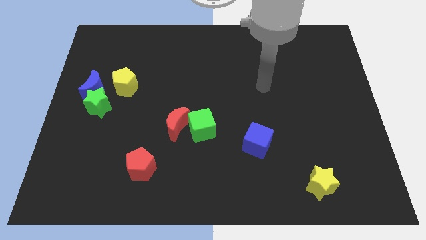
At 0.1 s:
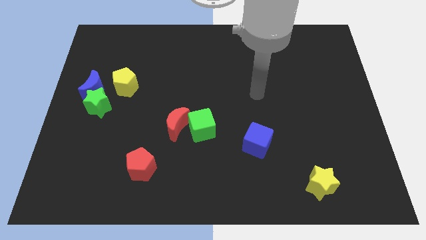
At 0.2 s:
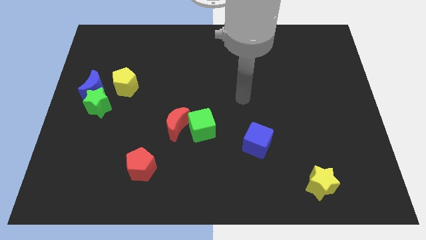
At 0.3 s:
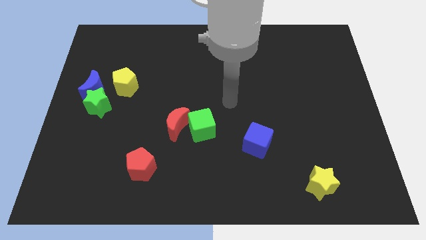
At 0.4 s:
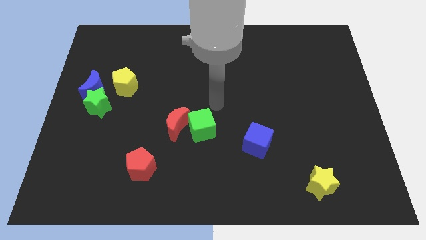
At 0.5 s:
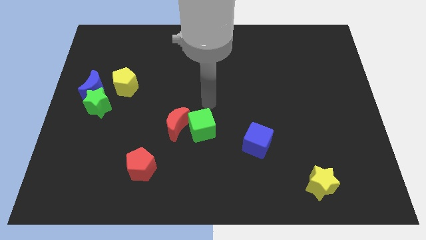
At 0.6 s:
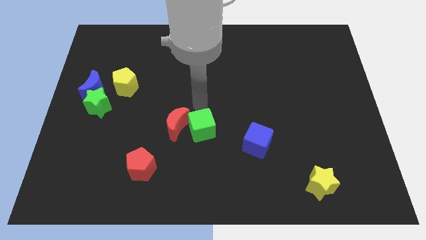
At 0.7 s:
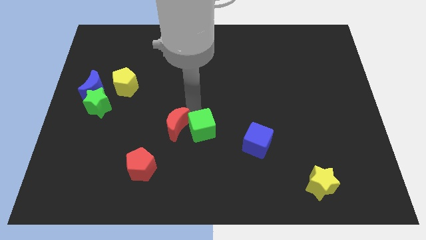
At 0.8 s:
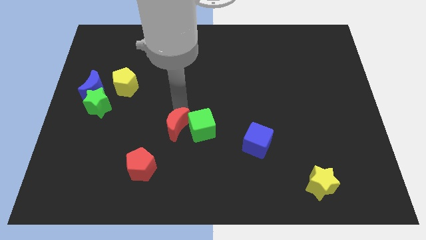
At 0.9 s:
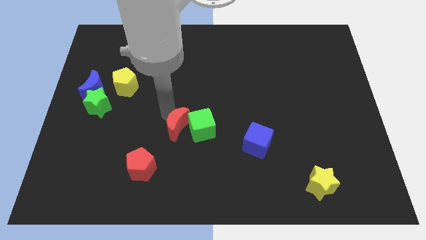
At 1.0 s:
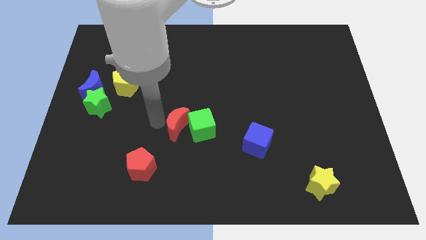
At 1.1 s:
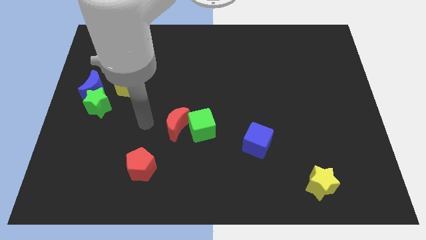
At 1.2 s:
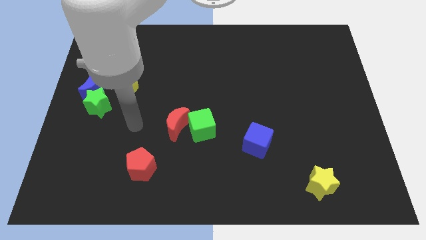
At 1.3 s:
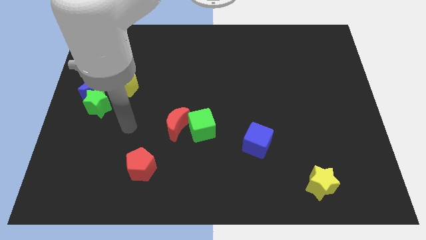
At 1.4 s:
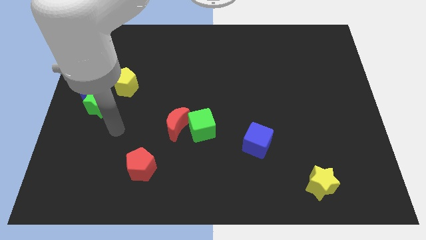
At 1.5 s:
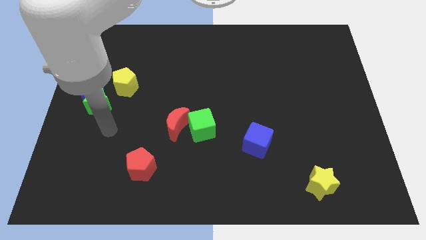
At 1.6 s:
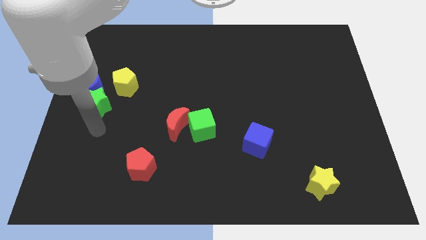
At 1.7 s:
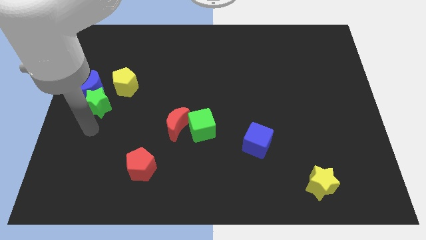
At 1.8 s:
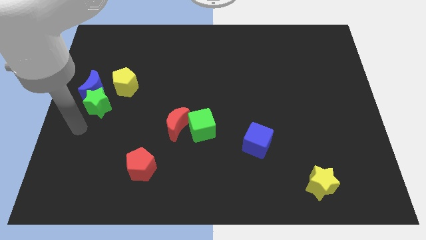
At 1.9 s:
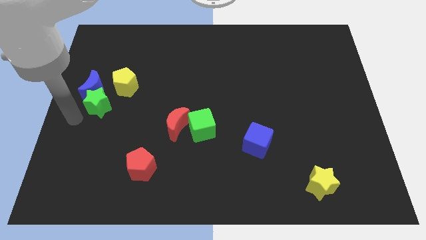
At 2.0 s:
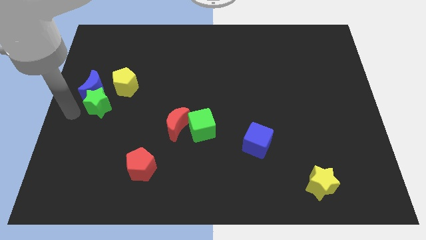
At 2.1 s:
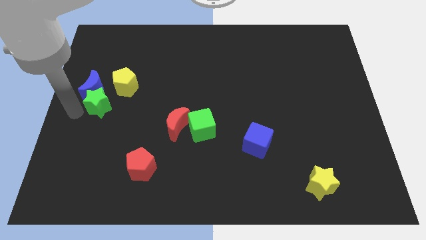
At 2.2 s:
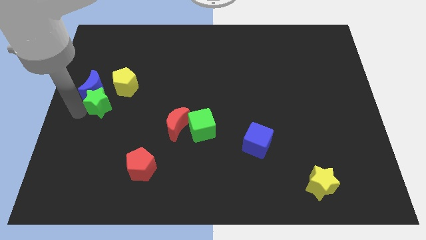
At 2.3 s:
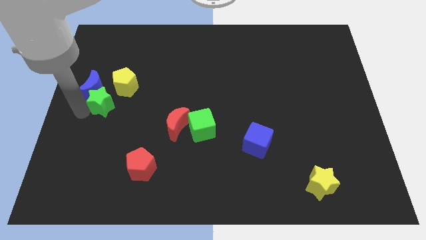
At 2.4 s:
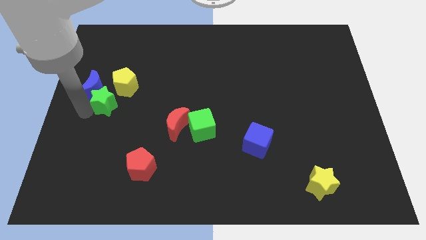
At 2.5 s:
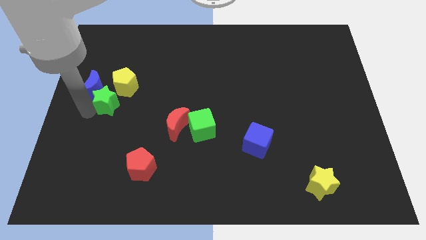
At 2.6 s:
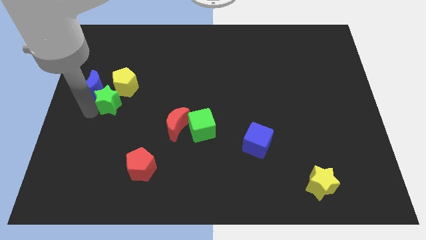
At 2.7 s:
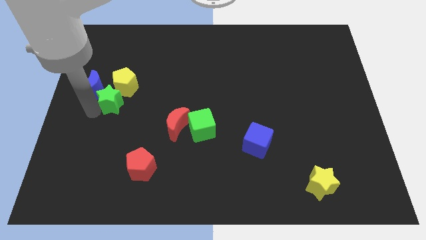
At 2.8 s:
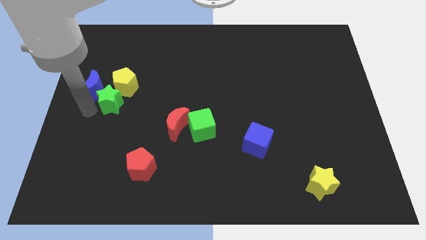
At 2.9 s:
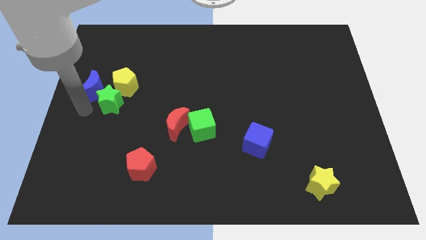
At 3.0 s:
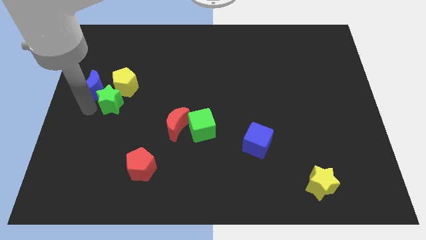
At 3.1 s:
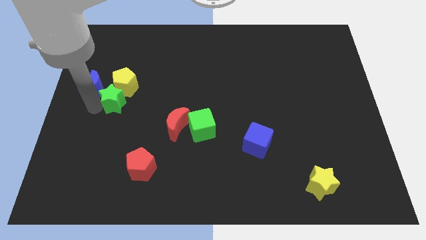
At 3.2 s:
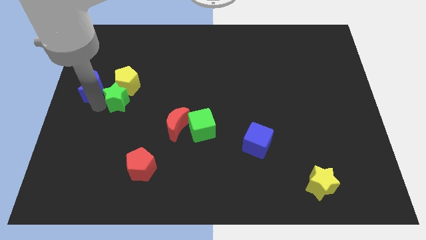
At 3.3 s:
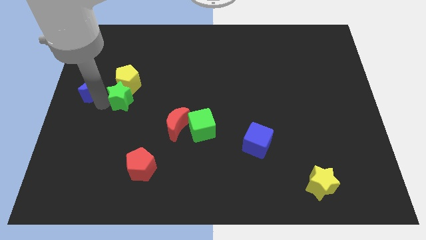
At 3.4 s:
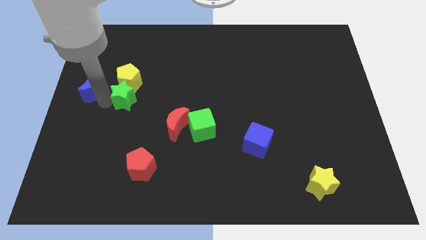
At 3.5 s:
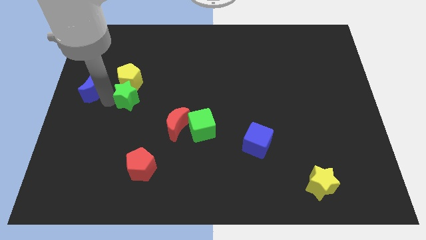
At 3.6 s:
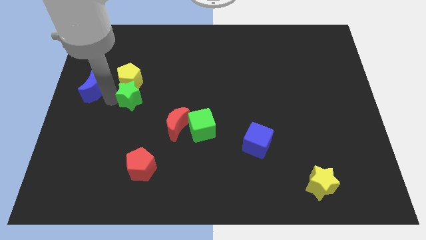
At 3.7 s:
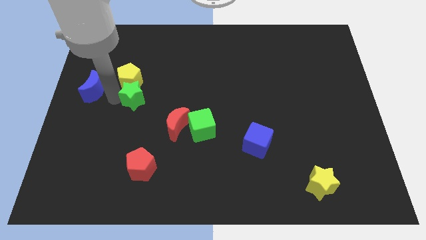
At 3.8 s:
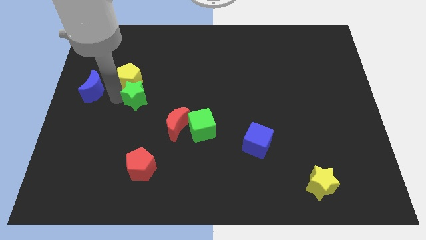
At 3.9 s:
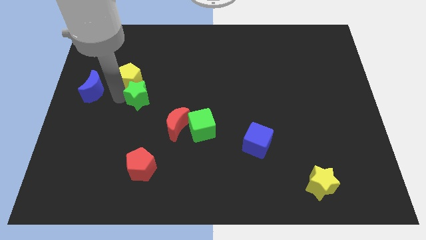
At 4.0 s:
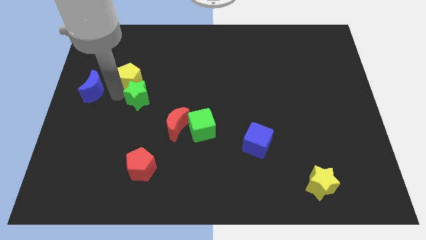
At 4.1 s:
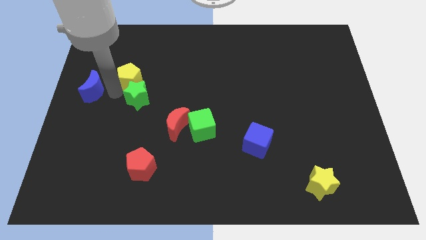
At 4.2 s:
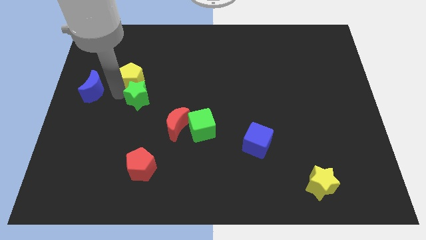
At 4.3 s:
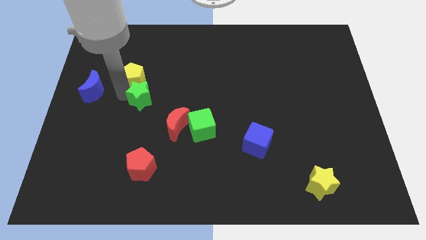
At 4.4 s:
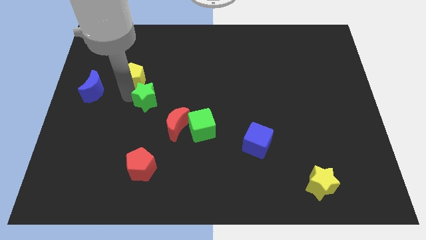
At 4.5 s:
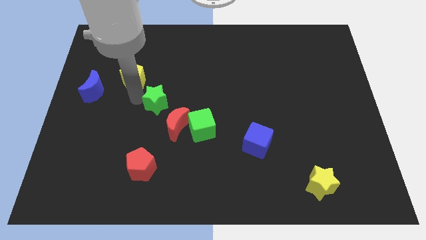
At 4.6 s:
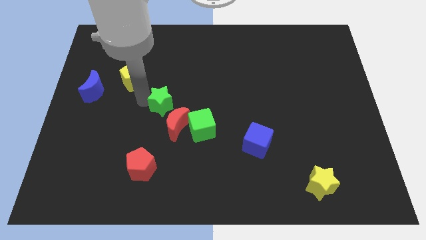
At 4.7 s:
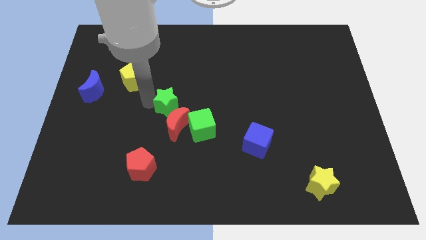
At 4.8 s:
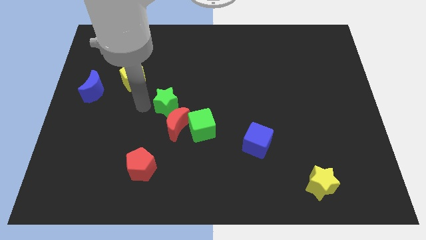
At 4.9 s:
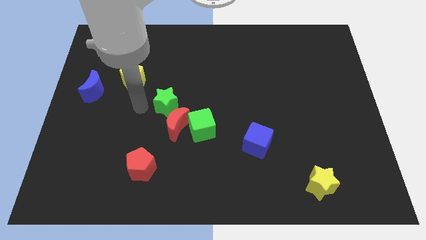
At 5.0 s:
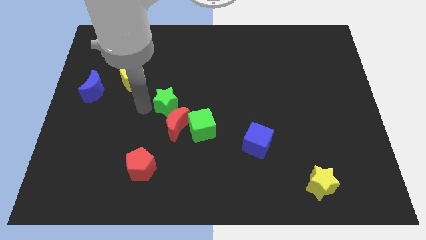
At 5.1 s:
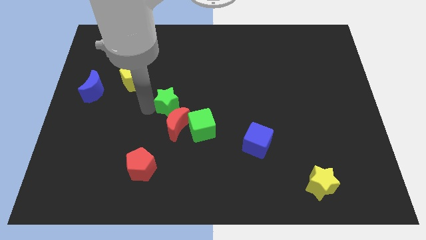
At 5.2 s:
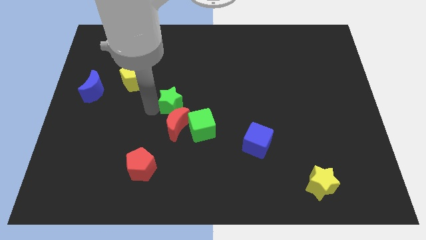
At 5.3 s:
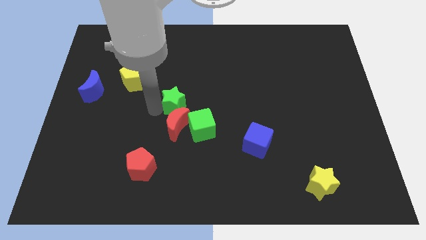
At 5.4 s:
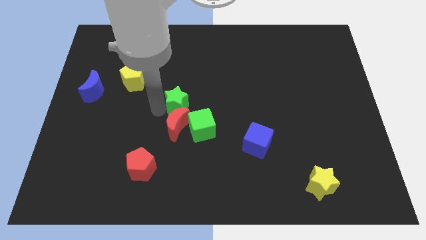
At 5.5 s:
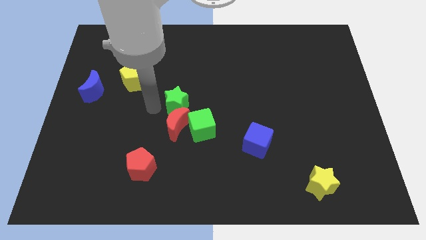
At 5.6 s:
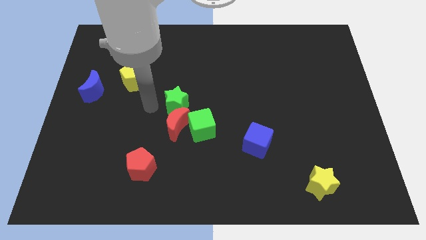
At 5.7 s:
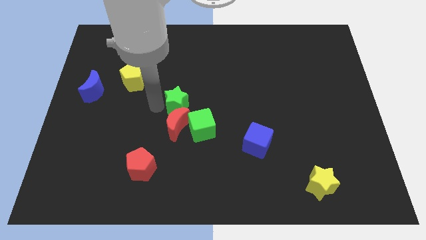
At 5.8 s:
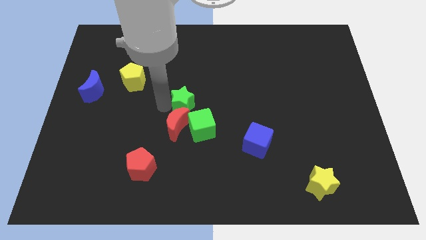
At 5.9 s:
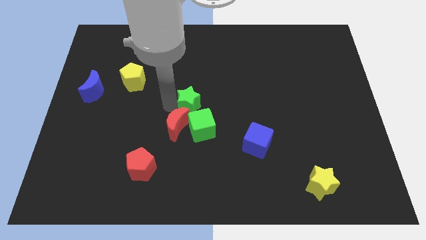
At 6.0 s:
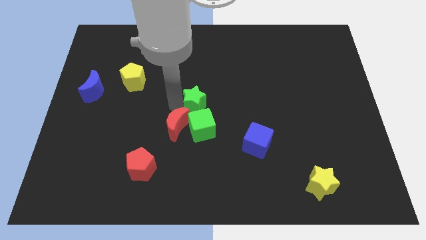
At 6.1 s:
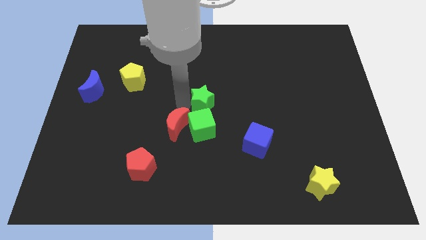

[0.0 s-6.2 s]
put the green star to the top right side of the green cube

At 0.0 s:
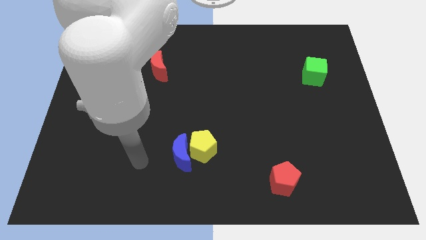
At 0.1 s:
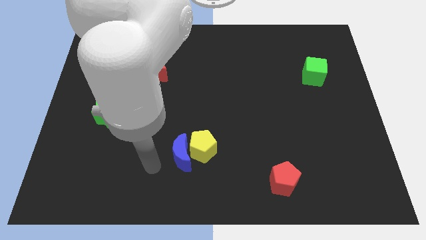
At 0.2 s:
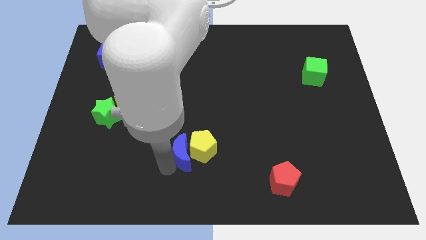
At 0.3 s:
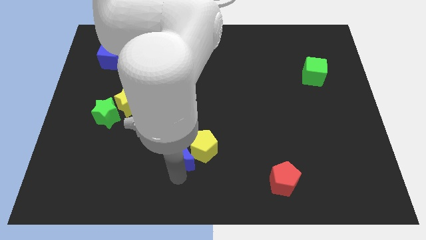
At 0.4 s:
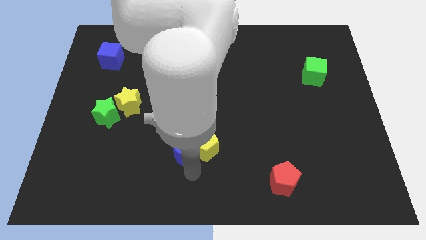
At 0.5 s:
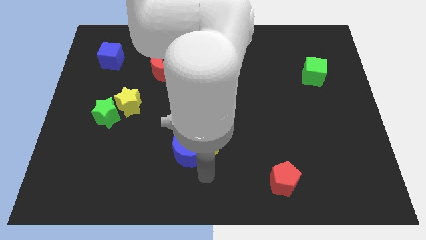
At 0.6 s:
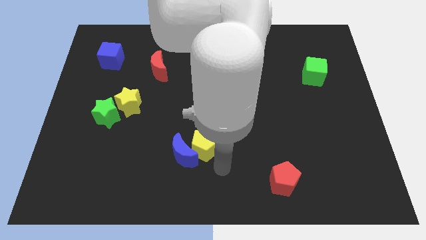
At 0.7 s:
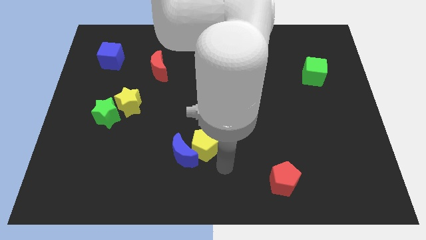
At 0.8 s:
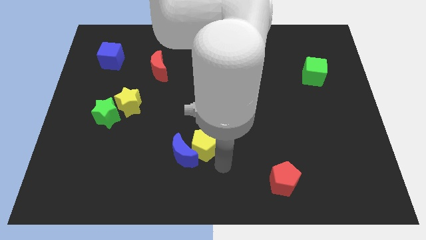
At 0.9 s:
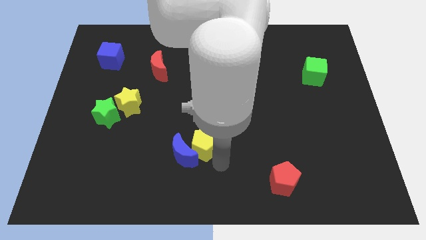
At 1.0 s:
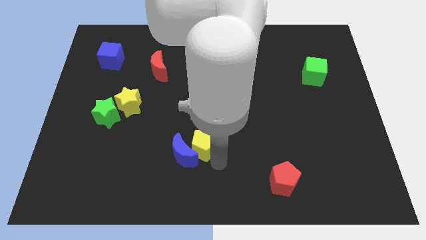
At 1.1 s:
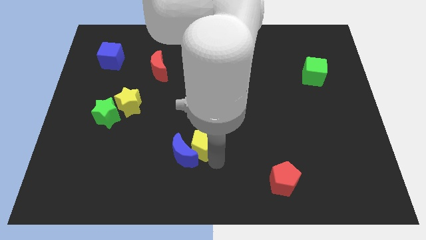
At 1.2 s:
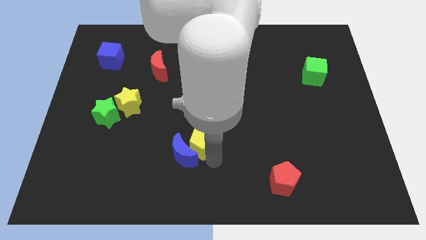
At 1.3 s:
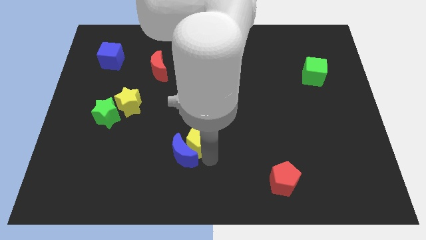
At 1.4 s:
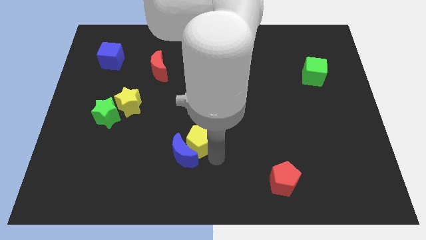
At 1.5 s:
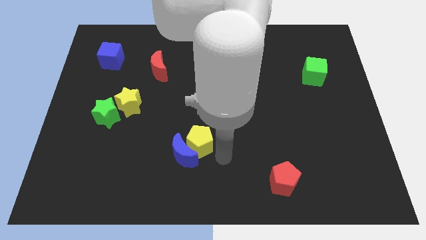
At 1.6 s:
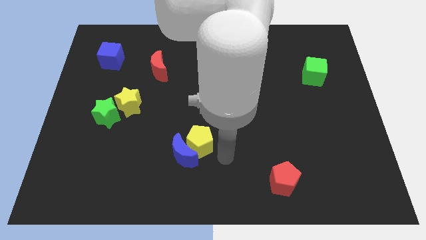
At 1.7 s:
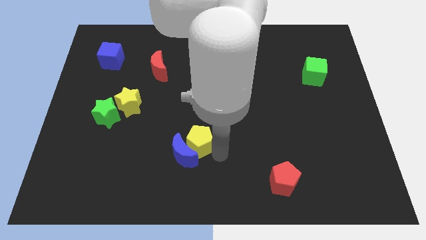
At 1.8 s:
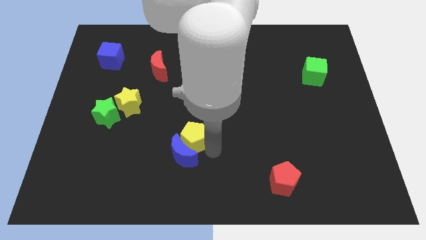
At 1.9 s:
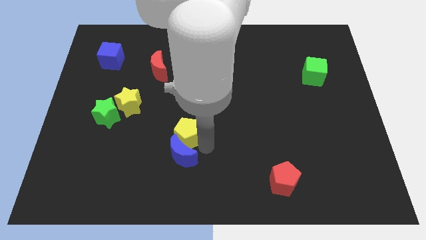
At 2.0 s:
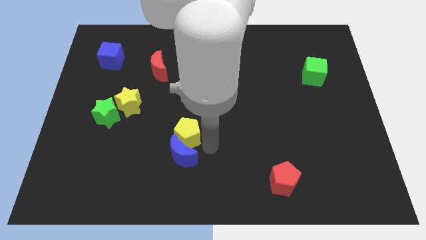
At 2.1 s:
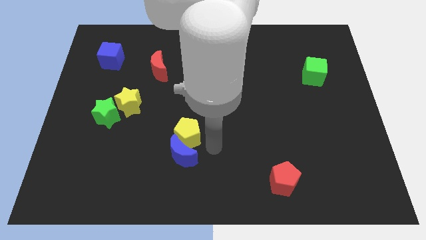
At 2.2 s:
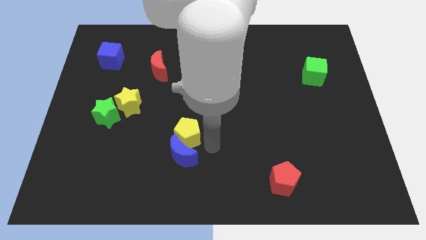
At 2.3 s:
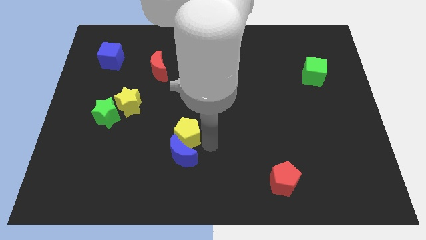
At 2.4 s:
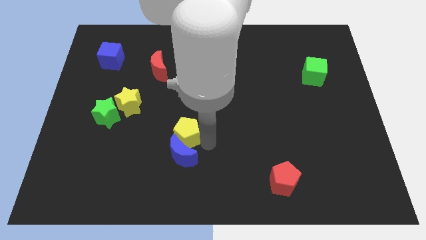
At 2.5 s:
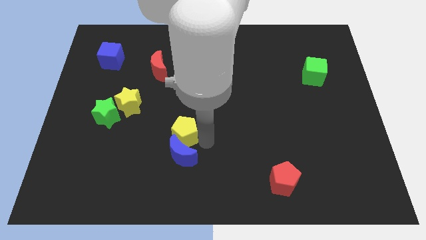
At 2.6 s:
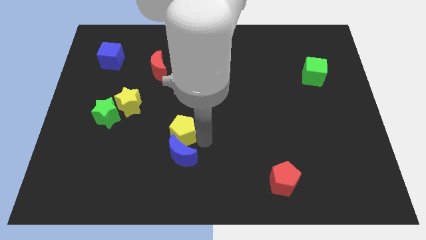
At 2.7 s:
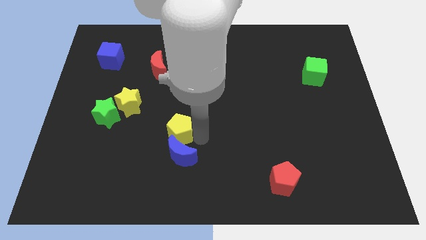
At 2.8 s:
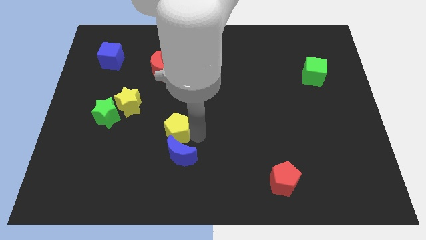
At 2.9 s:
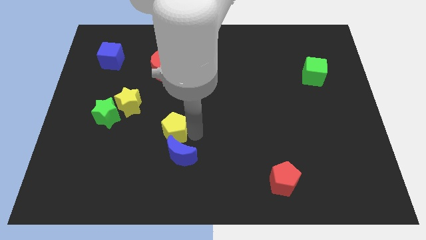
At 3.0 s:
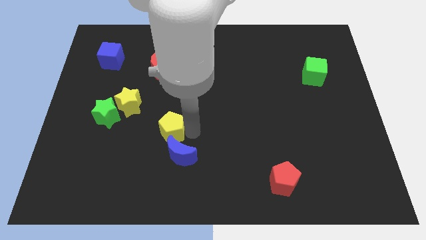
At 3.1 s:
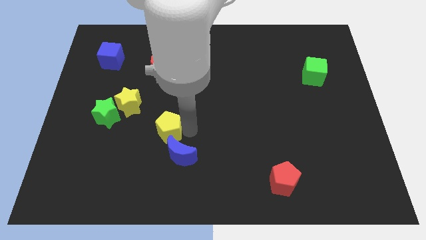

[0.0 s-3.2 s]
slide the yellow pentagon just right of the green star
